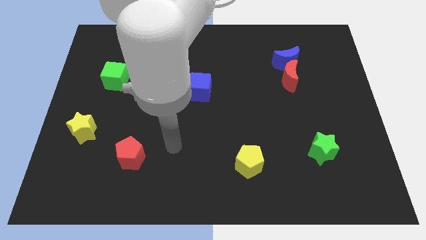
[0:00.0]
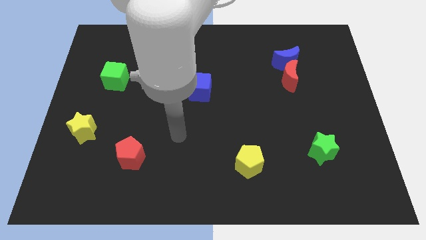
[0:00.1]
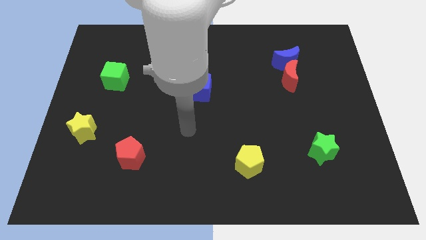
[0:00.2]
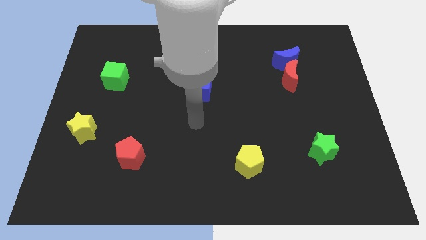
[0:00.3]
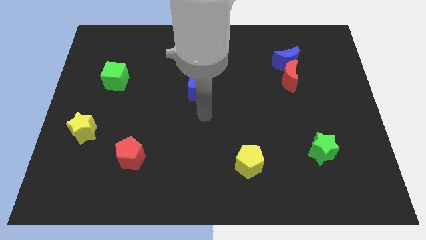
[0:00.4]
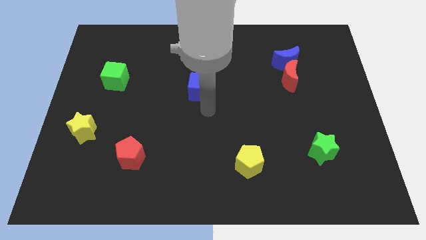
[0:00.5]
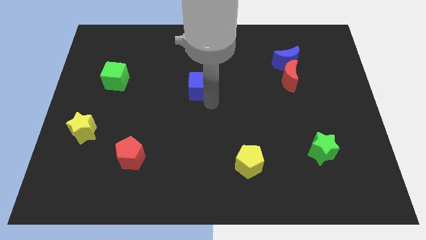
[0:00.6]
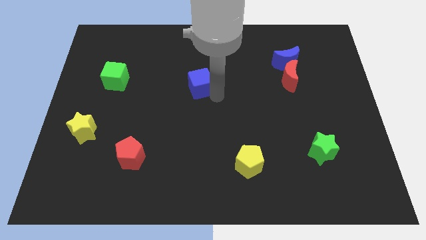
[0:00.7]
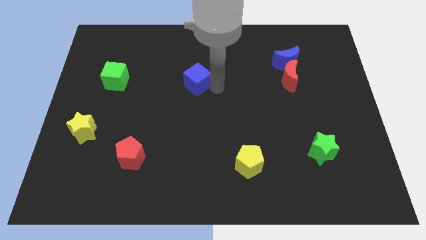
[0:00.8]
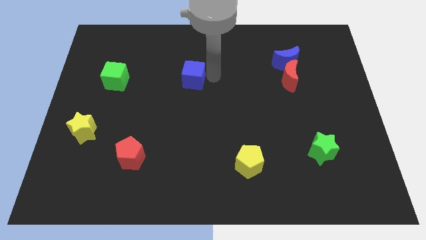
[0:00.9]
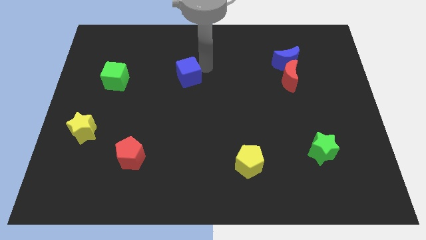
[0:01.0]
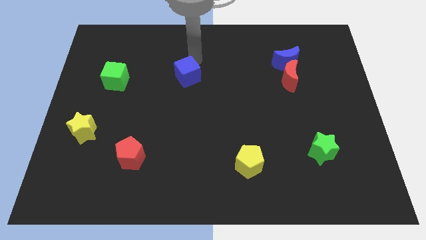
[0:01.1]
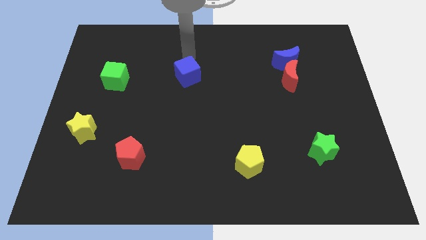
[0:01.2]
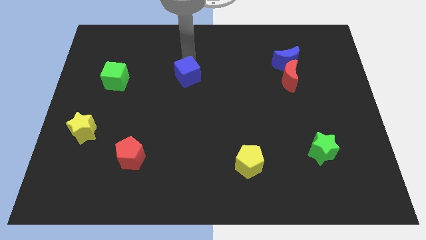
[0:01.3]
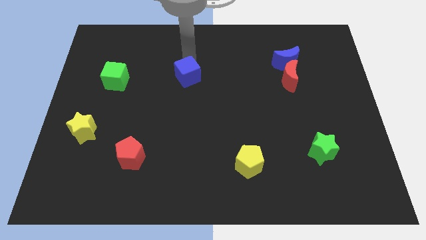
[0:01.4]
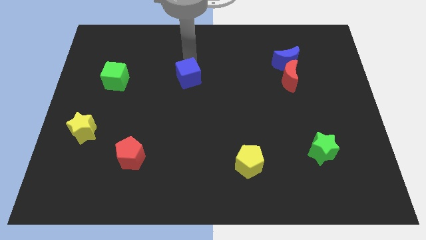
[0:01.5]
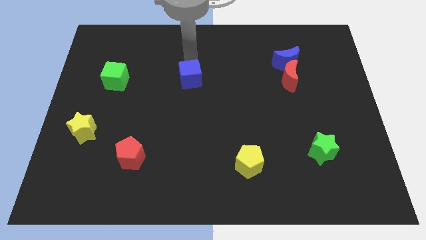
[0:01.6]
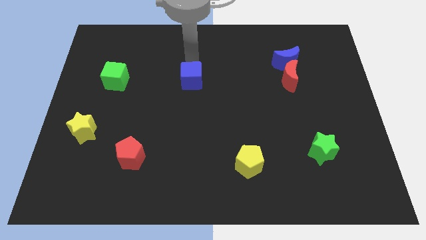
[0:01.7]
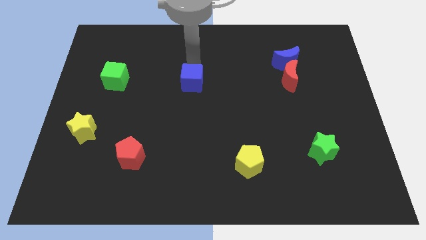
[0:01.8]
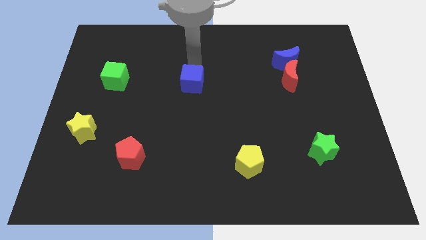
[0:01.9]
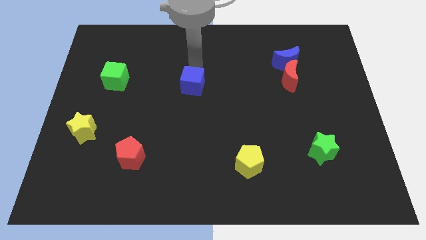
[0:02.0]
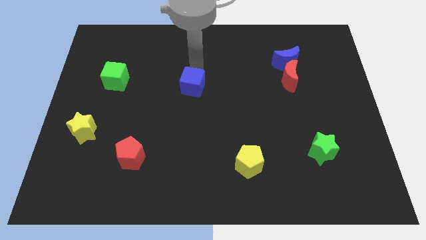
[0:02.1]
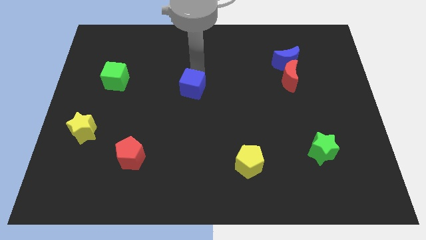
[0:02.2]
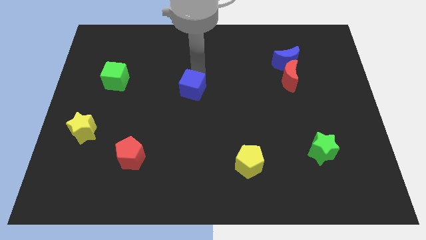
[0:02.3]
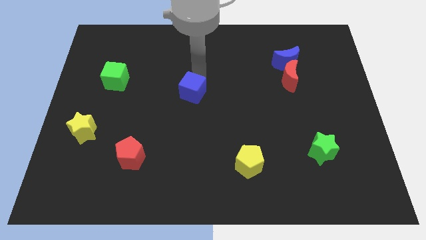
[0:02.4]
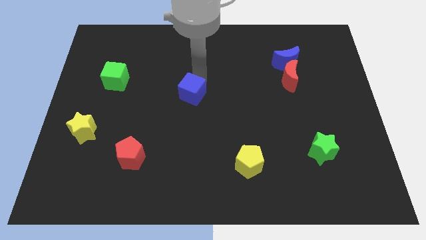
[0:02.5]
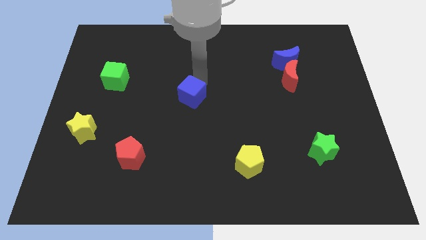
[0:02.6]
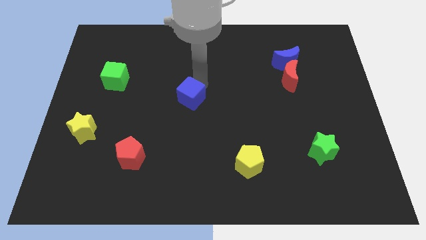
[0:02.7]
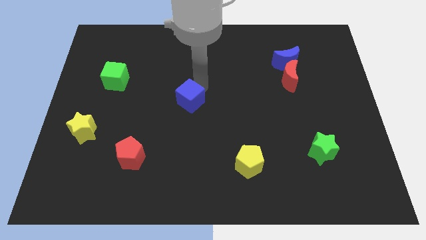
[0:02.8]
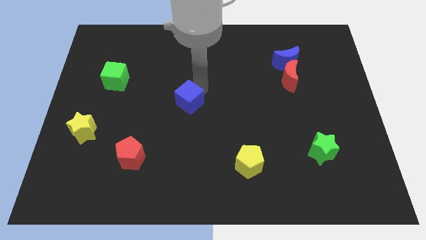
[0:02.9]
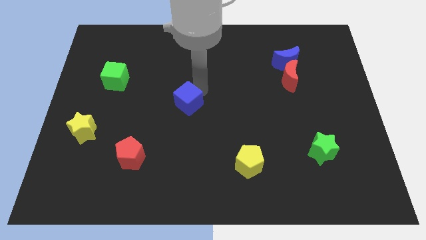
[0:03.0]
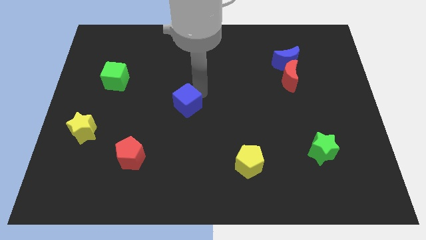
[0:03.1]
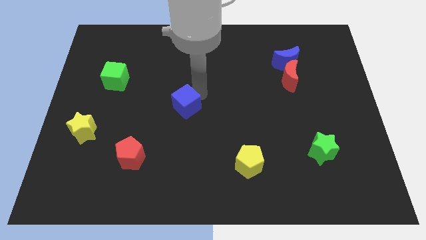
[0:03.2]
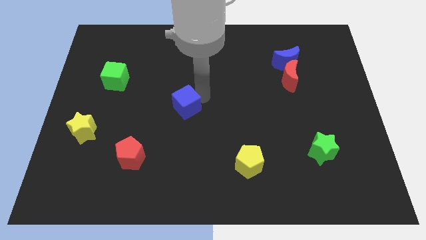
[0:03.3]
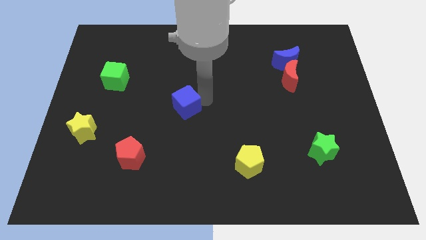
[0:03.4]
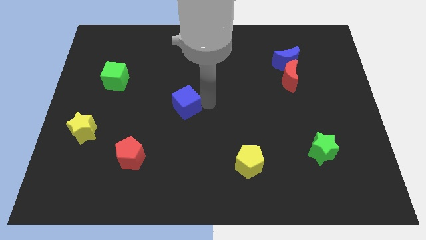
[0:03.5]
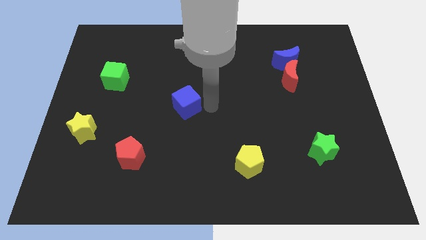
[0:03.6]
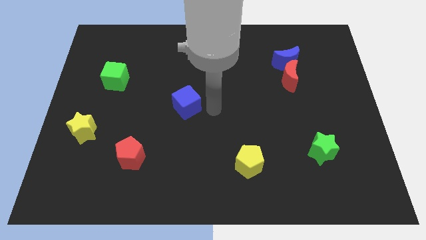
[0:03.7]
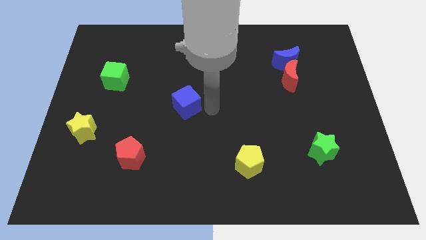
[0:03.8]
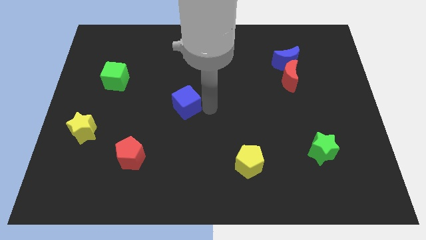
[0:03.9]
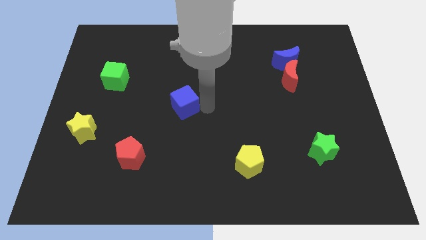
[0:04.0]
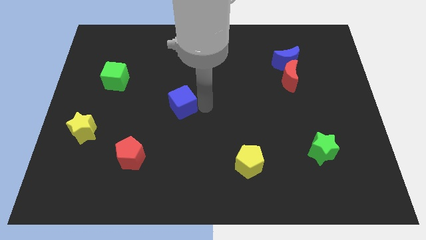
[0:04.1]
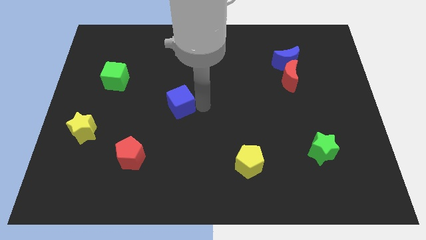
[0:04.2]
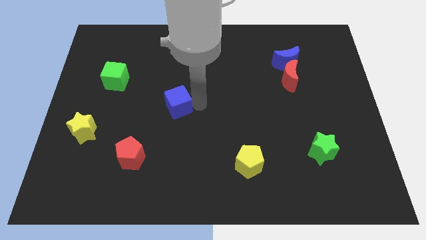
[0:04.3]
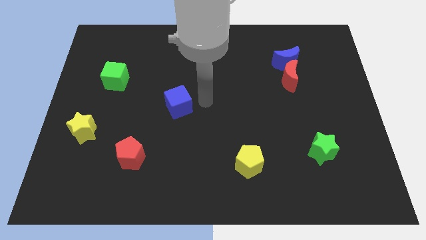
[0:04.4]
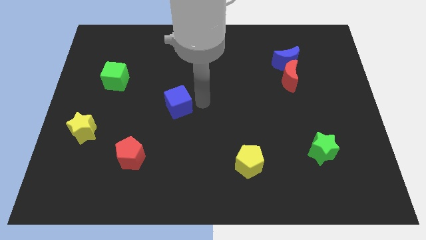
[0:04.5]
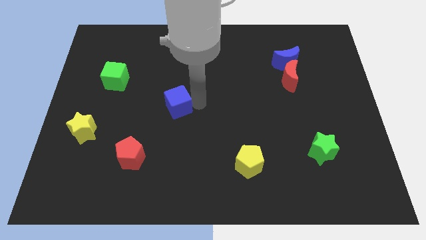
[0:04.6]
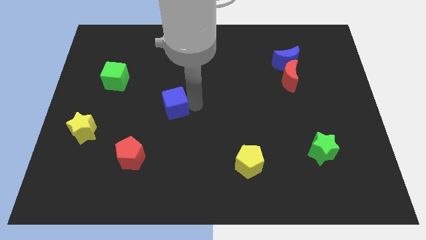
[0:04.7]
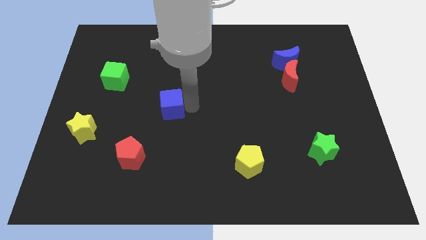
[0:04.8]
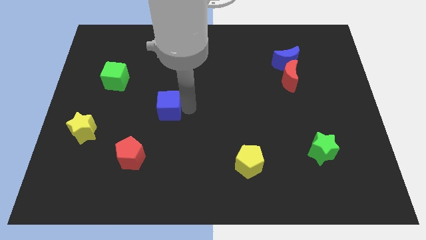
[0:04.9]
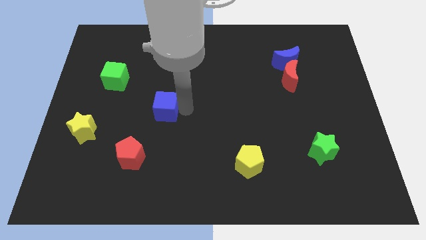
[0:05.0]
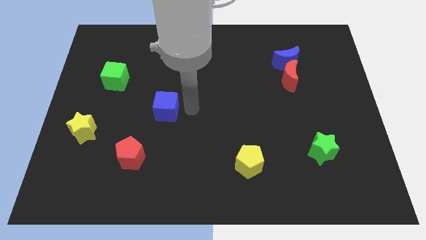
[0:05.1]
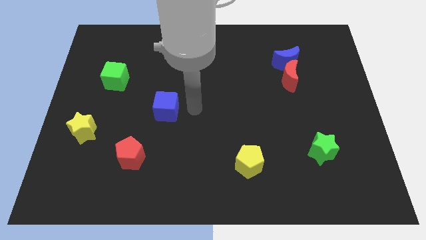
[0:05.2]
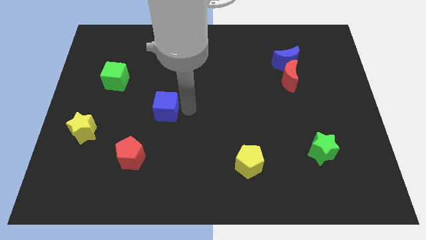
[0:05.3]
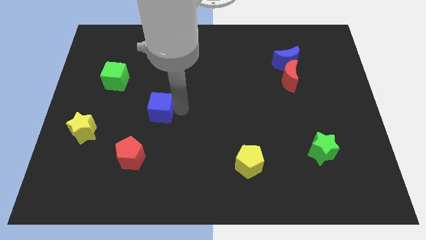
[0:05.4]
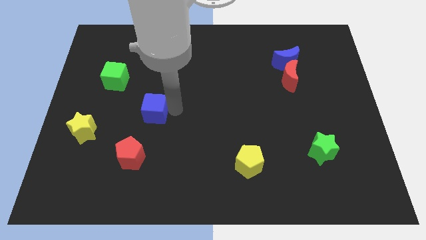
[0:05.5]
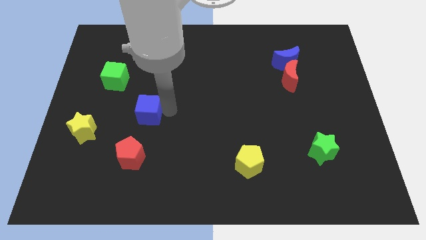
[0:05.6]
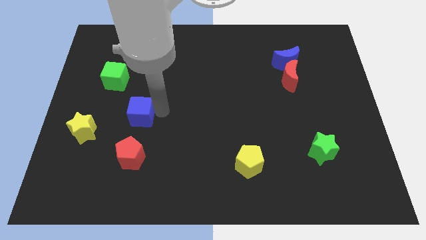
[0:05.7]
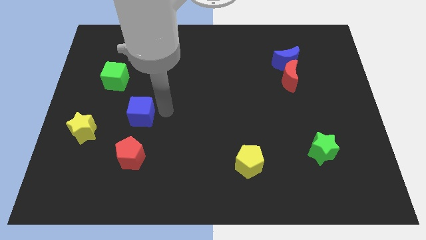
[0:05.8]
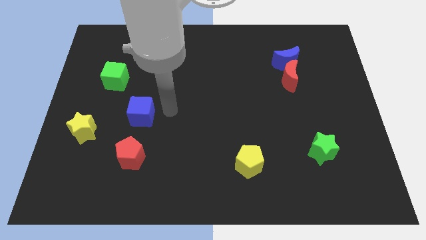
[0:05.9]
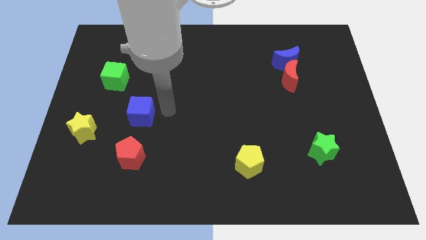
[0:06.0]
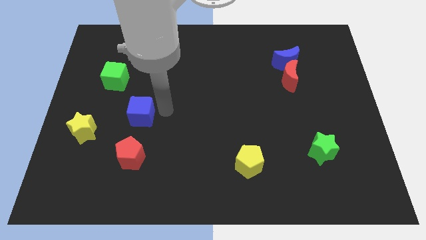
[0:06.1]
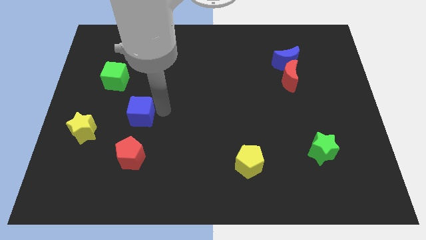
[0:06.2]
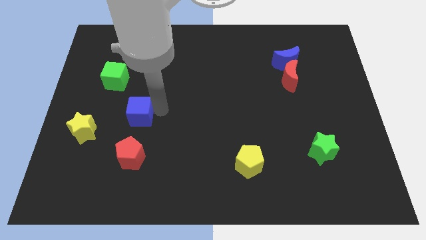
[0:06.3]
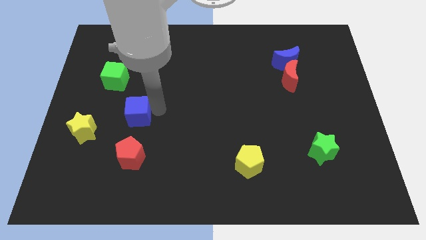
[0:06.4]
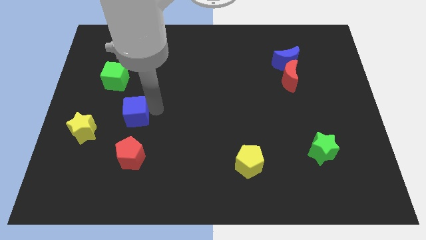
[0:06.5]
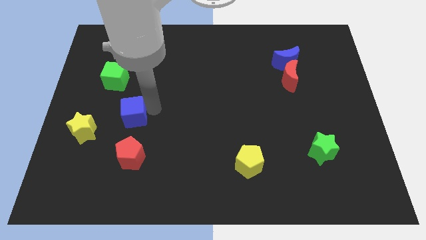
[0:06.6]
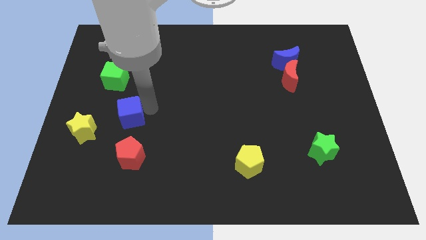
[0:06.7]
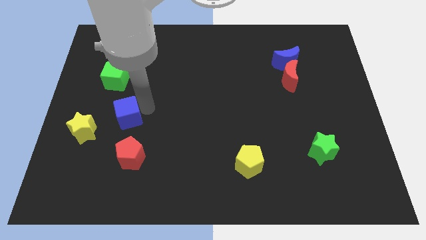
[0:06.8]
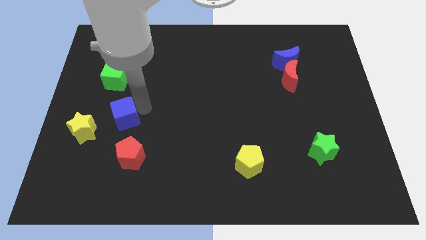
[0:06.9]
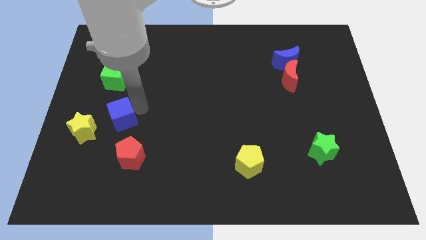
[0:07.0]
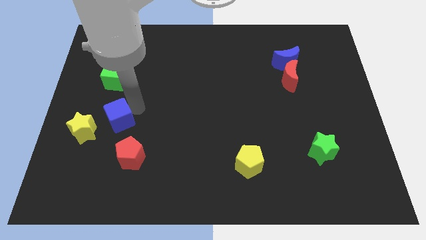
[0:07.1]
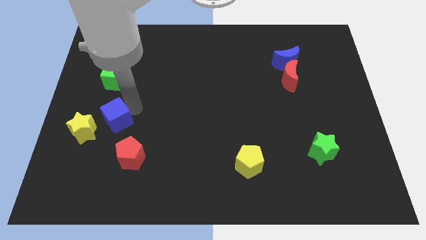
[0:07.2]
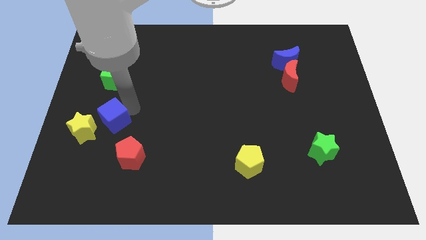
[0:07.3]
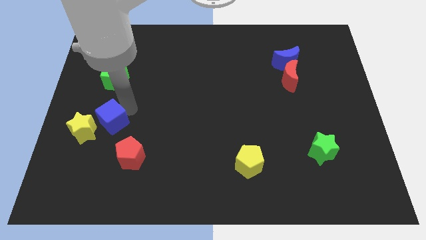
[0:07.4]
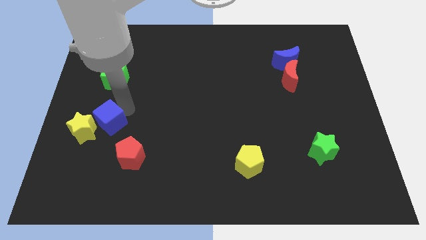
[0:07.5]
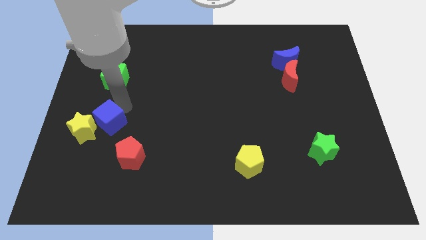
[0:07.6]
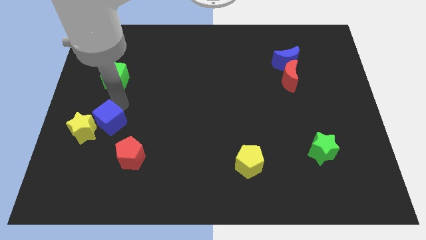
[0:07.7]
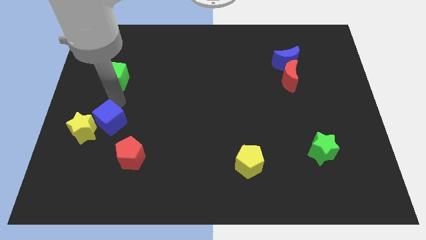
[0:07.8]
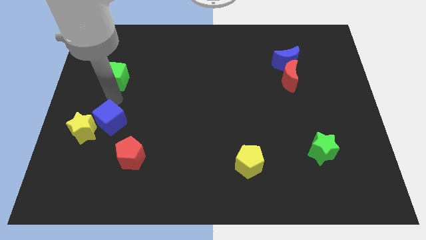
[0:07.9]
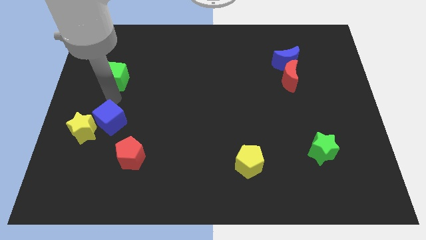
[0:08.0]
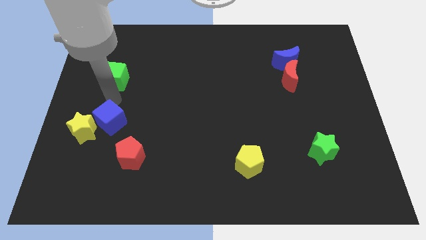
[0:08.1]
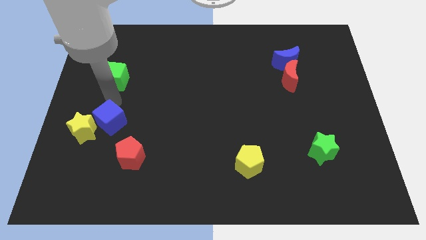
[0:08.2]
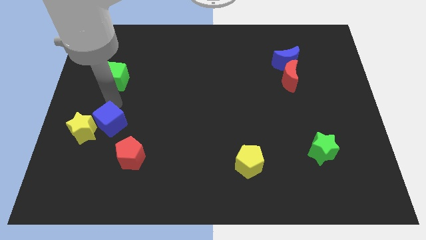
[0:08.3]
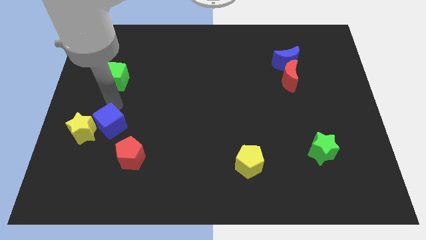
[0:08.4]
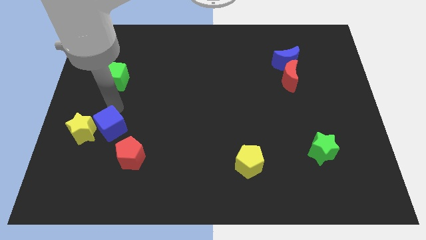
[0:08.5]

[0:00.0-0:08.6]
move the blue cube downwards and to the left
